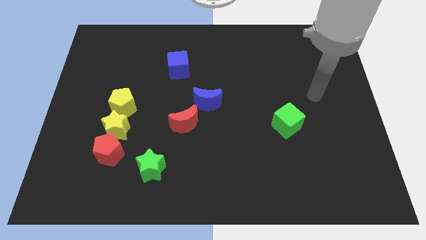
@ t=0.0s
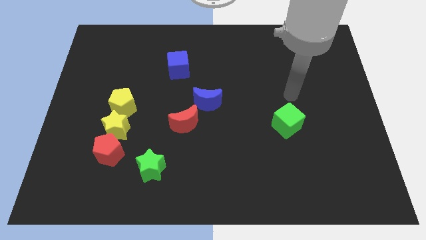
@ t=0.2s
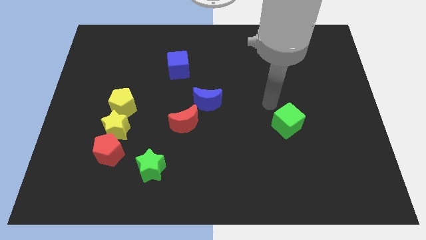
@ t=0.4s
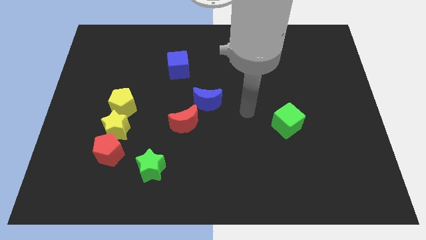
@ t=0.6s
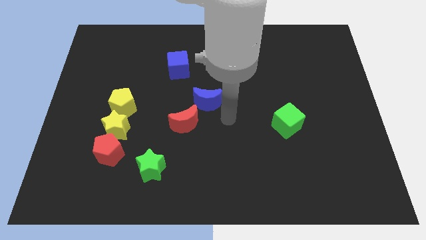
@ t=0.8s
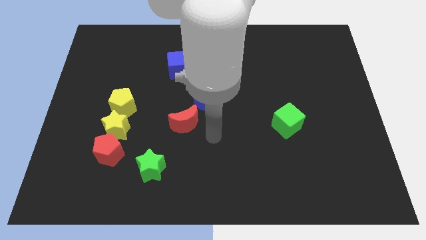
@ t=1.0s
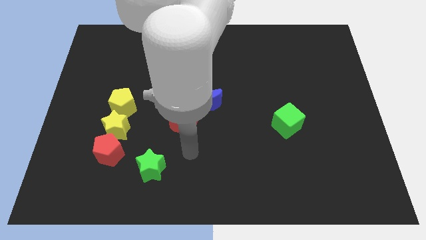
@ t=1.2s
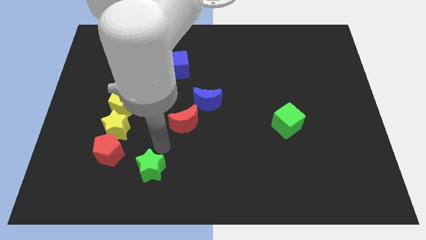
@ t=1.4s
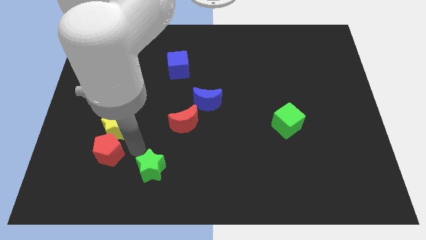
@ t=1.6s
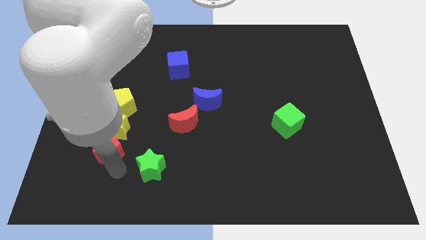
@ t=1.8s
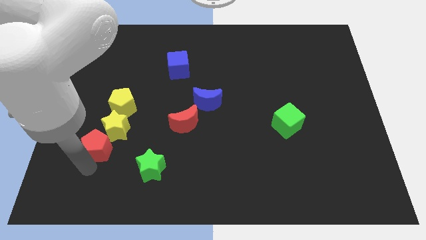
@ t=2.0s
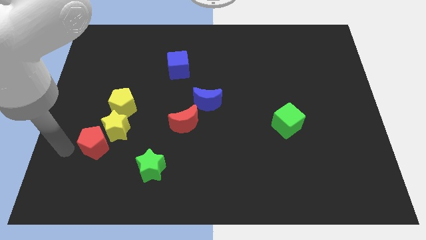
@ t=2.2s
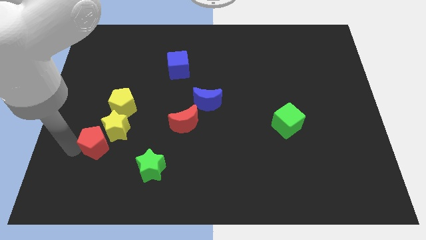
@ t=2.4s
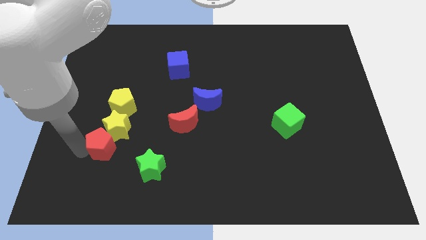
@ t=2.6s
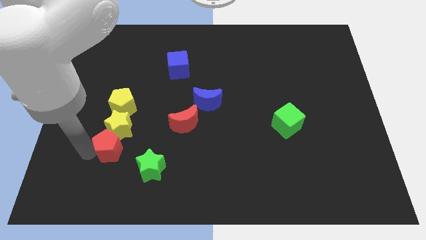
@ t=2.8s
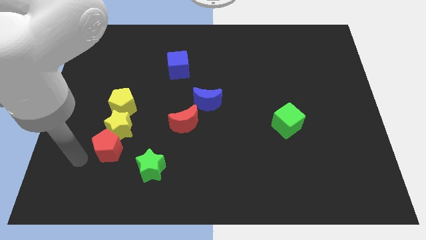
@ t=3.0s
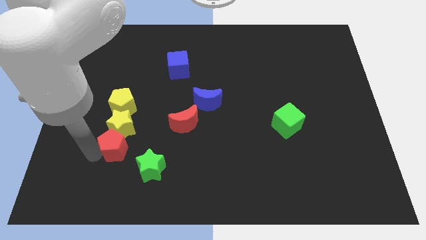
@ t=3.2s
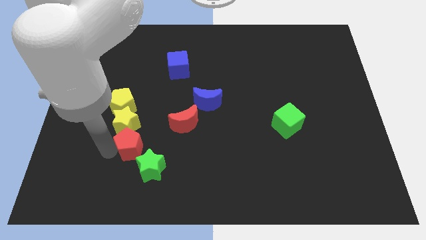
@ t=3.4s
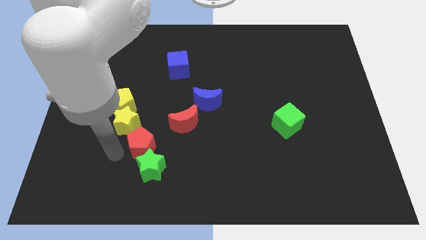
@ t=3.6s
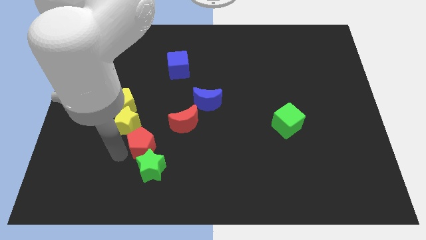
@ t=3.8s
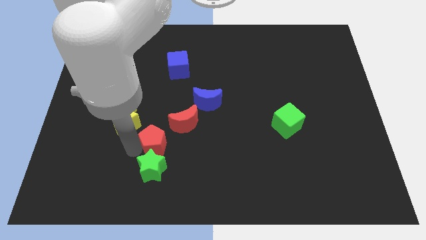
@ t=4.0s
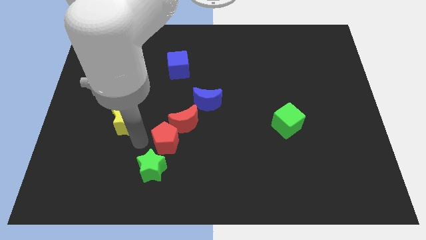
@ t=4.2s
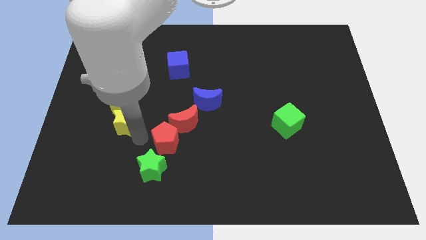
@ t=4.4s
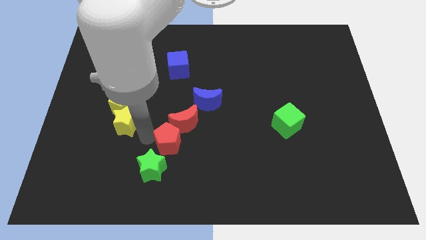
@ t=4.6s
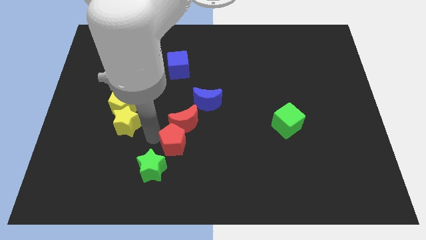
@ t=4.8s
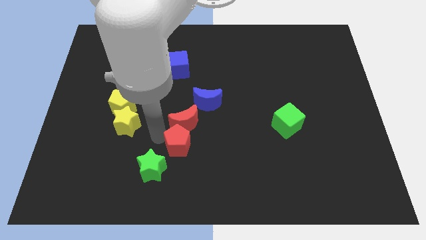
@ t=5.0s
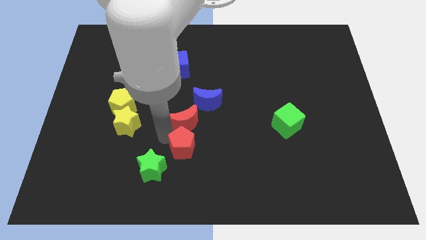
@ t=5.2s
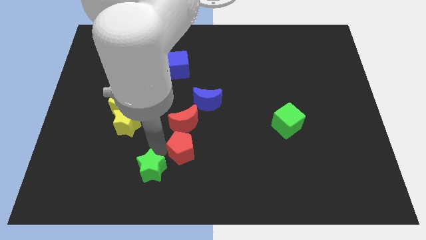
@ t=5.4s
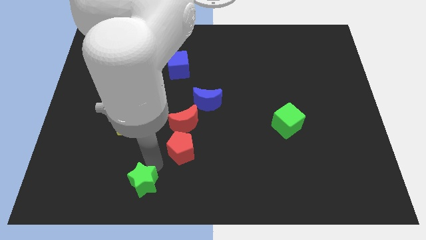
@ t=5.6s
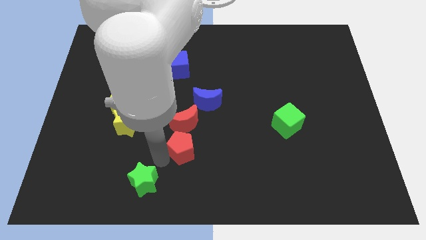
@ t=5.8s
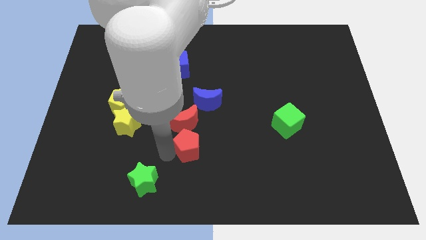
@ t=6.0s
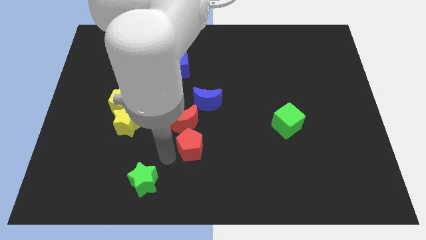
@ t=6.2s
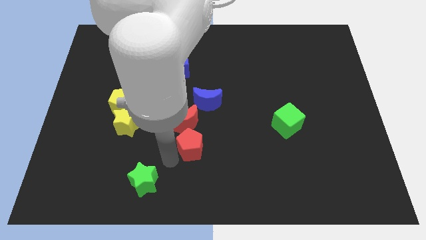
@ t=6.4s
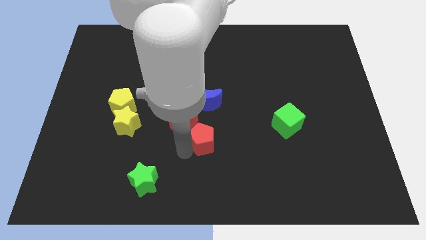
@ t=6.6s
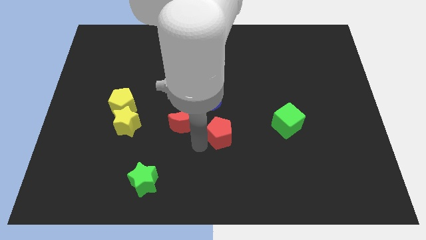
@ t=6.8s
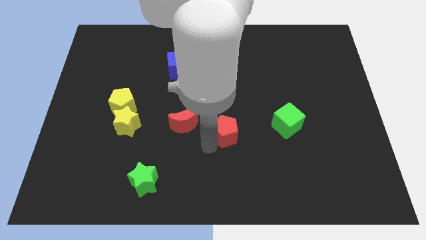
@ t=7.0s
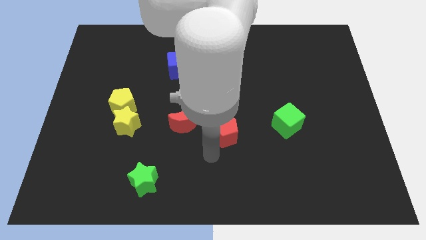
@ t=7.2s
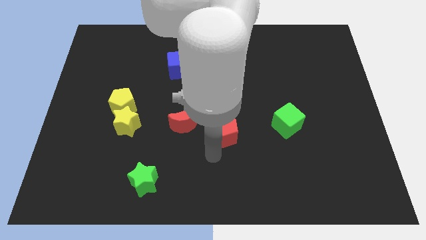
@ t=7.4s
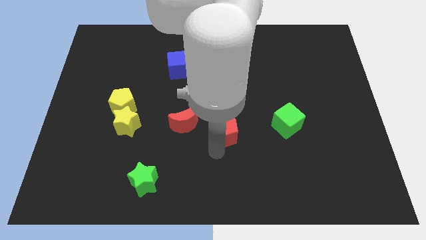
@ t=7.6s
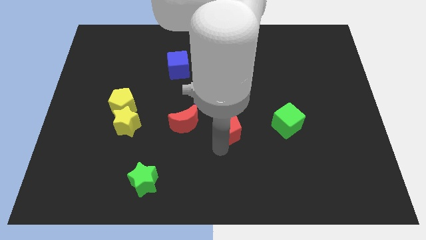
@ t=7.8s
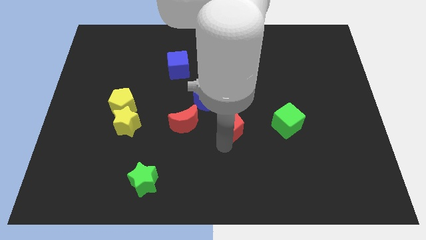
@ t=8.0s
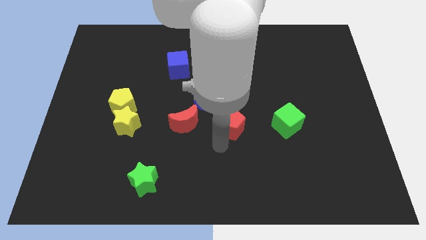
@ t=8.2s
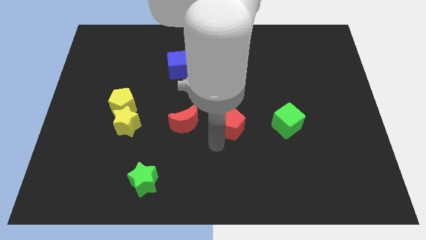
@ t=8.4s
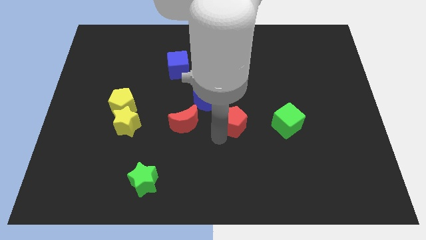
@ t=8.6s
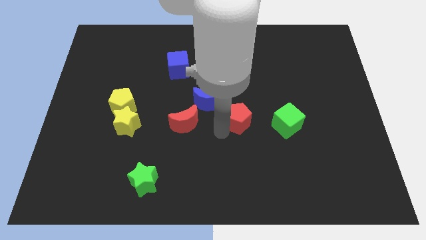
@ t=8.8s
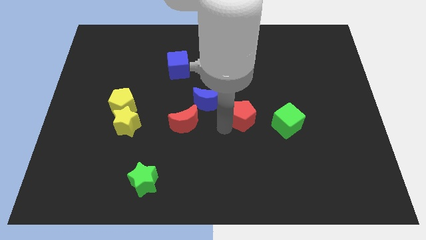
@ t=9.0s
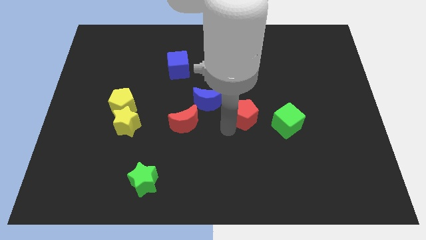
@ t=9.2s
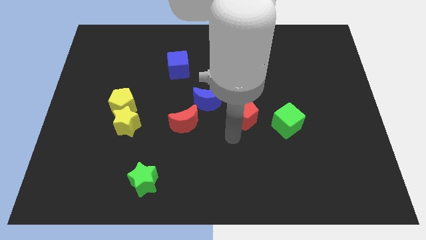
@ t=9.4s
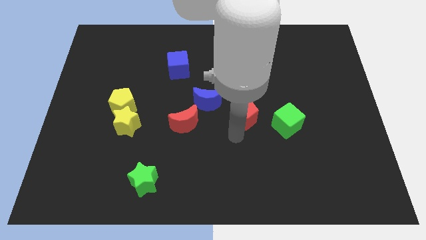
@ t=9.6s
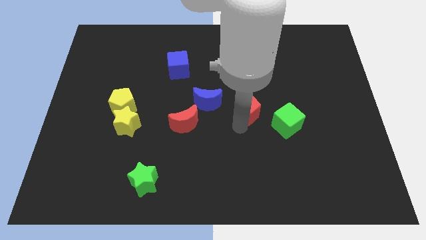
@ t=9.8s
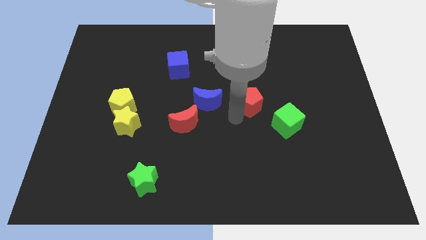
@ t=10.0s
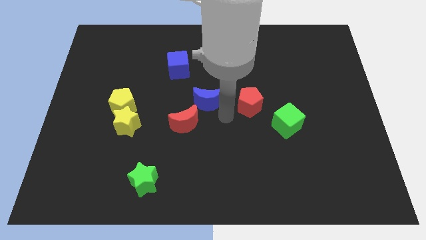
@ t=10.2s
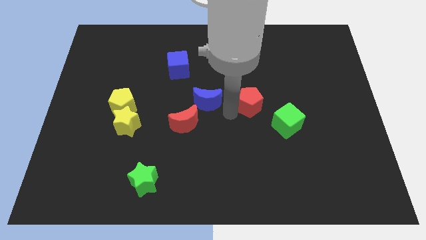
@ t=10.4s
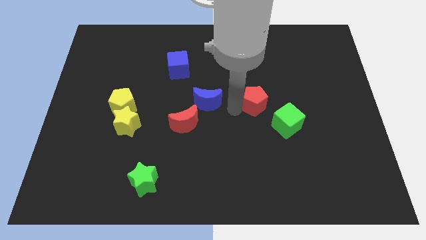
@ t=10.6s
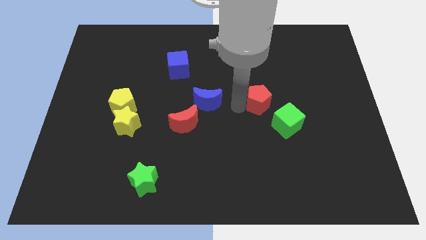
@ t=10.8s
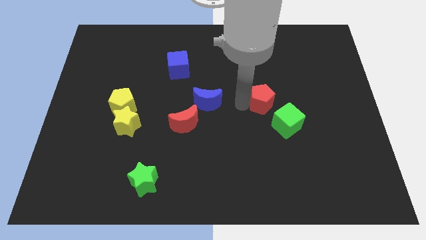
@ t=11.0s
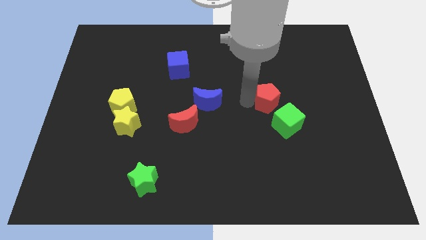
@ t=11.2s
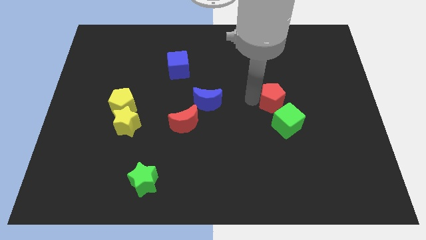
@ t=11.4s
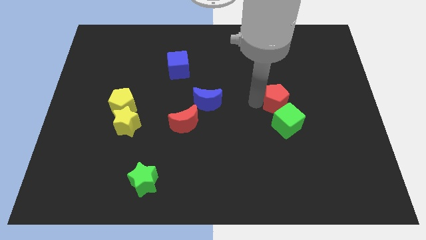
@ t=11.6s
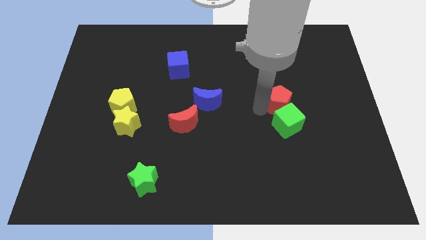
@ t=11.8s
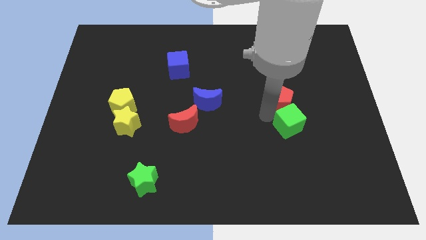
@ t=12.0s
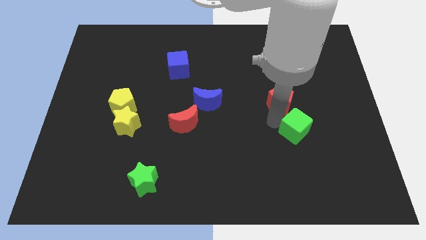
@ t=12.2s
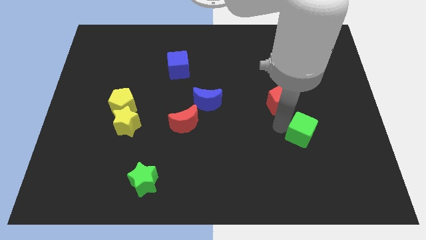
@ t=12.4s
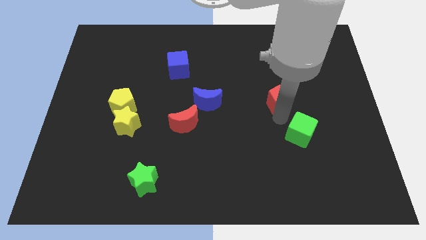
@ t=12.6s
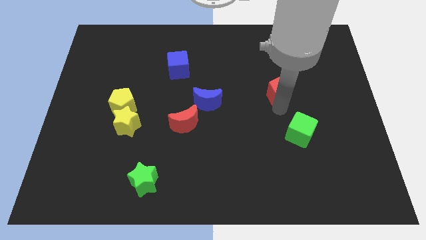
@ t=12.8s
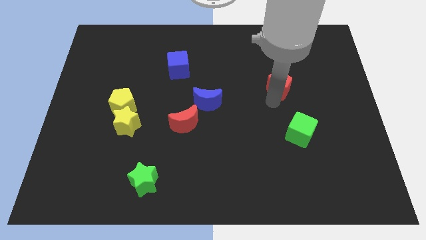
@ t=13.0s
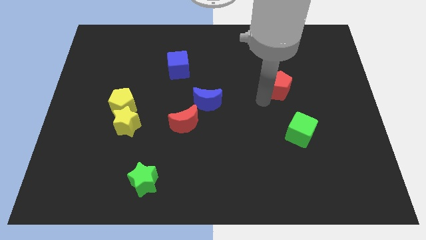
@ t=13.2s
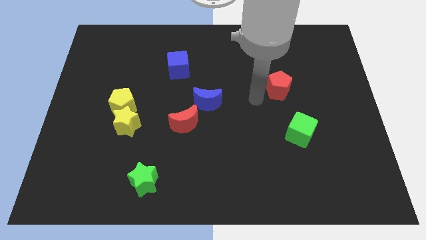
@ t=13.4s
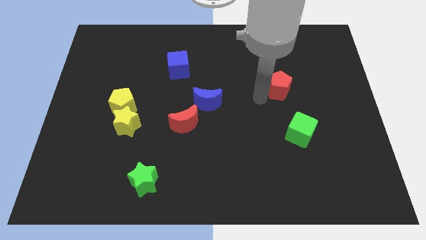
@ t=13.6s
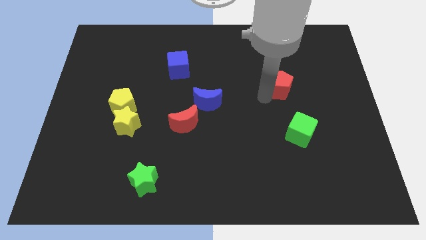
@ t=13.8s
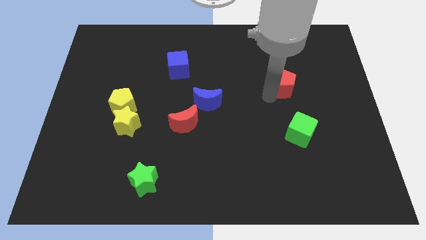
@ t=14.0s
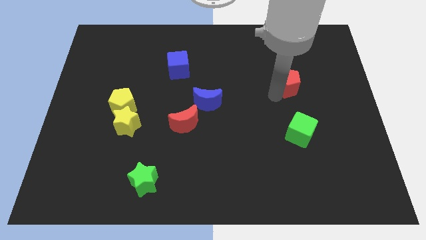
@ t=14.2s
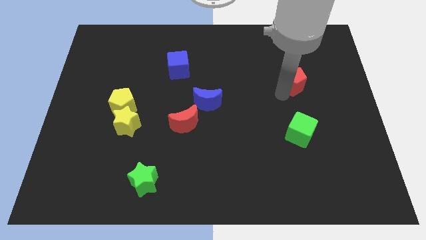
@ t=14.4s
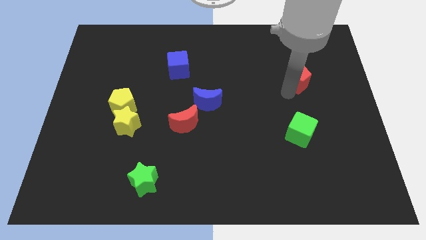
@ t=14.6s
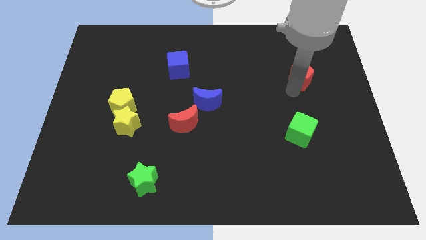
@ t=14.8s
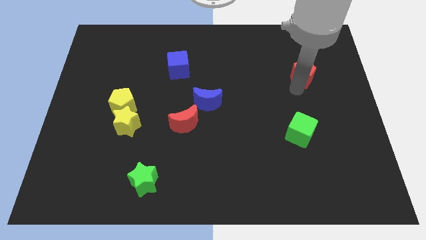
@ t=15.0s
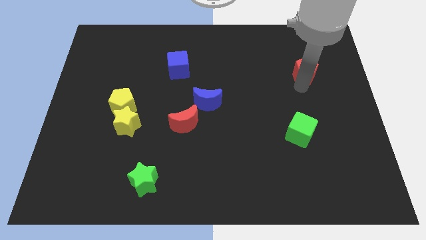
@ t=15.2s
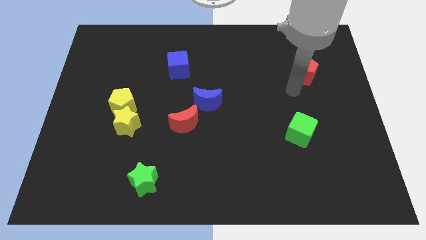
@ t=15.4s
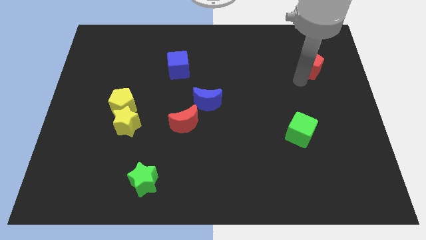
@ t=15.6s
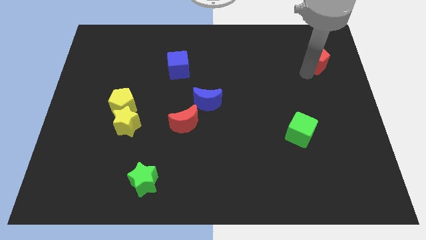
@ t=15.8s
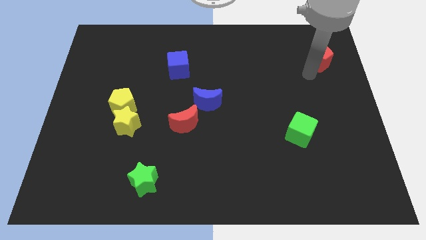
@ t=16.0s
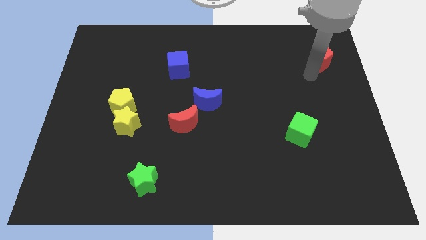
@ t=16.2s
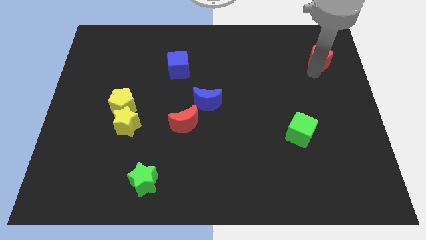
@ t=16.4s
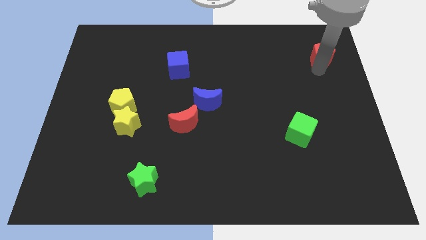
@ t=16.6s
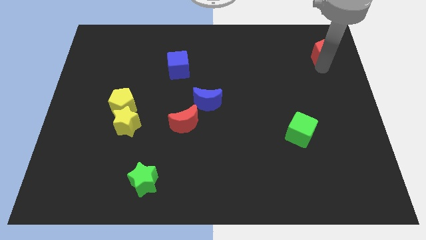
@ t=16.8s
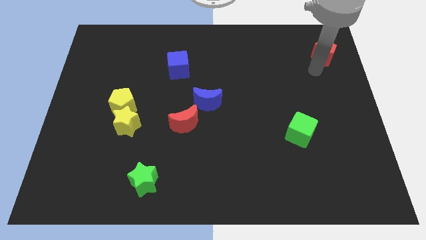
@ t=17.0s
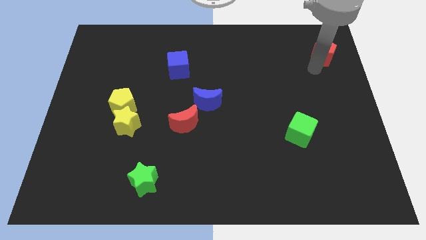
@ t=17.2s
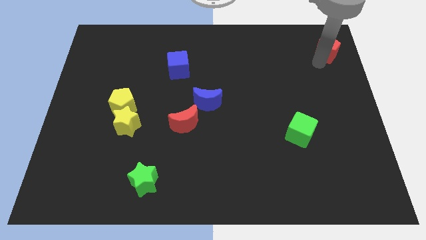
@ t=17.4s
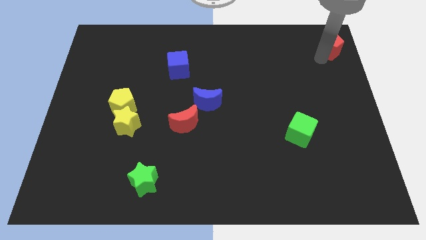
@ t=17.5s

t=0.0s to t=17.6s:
move the red pentagon to the upper right corner
